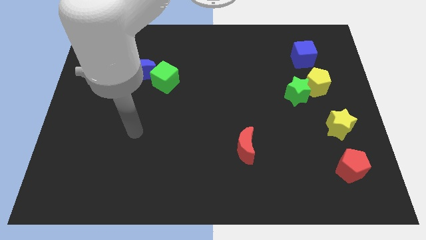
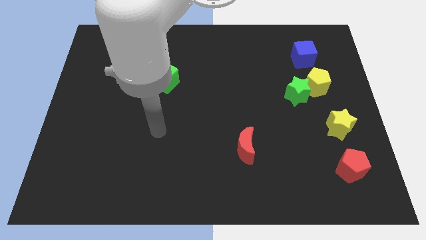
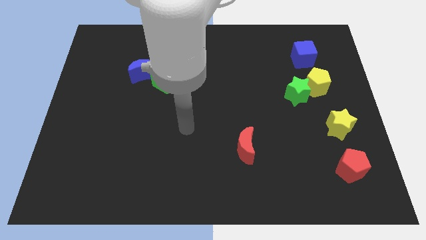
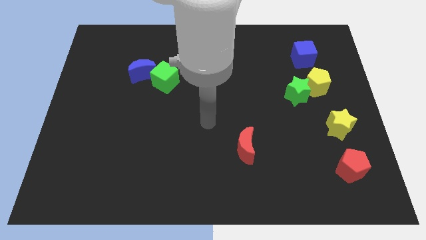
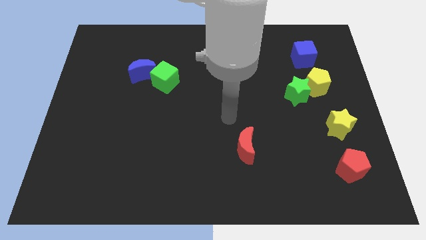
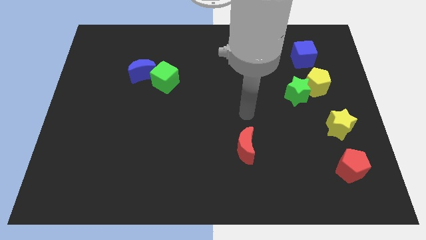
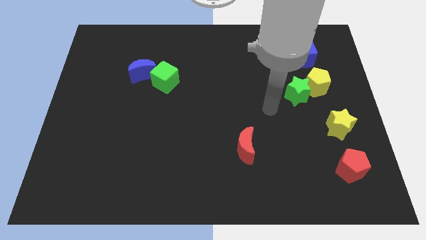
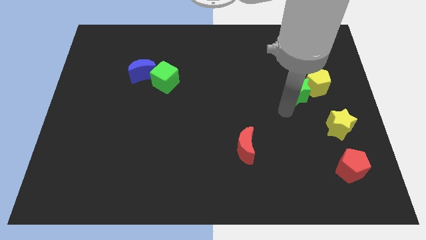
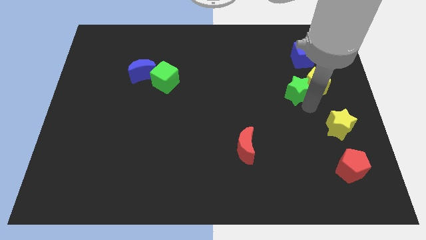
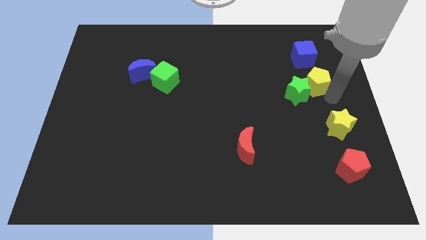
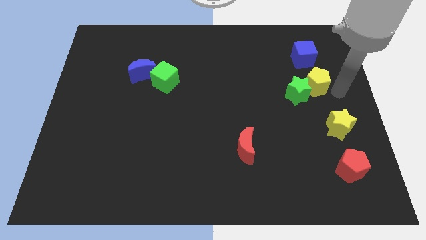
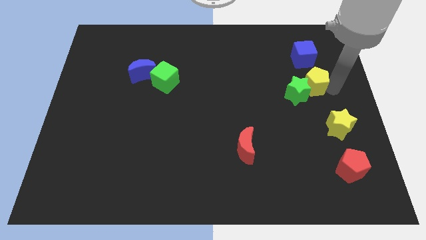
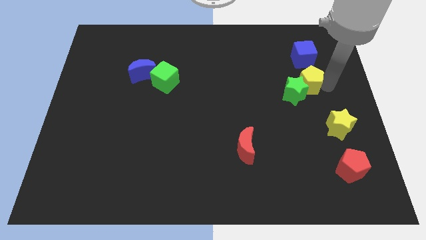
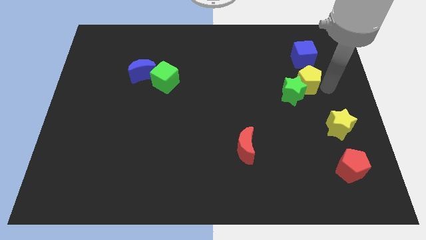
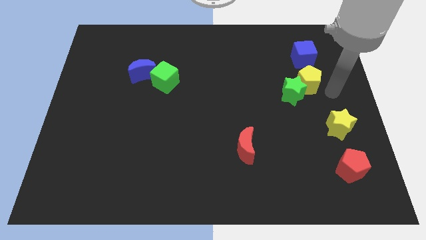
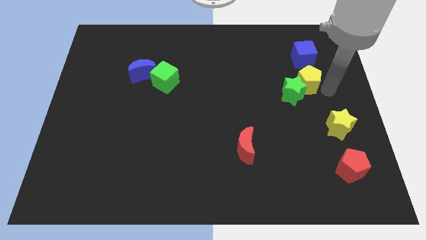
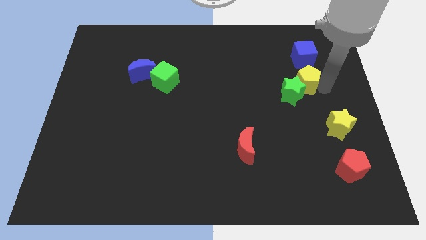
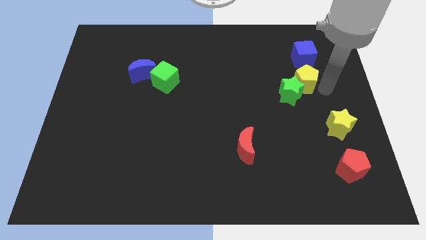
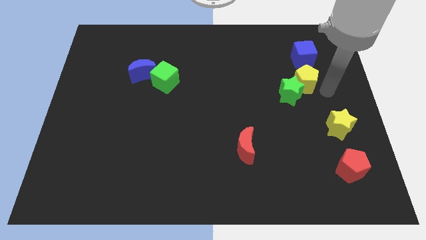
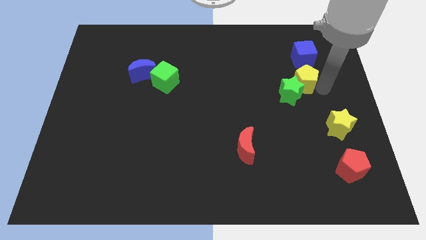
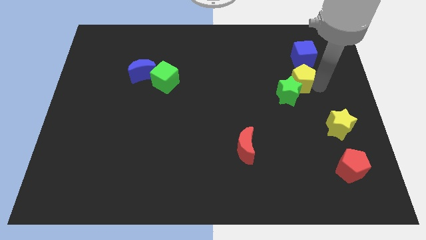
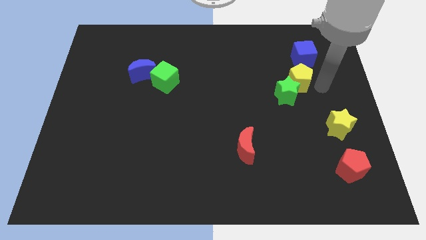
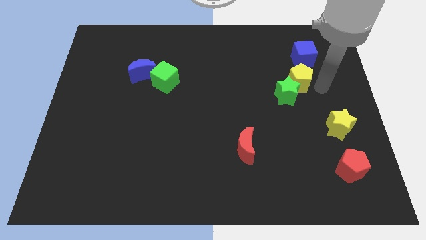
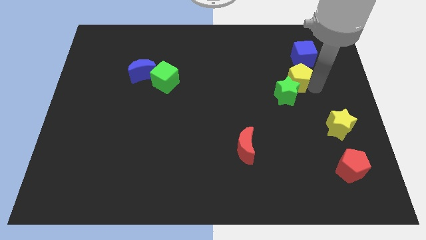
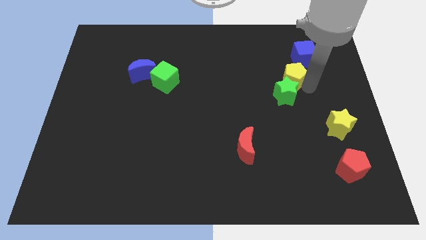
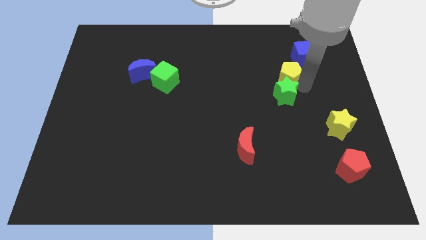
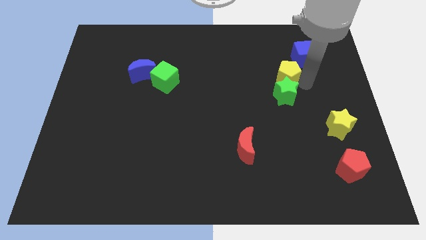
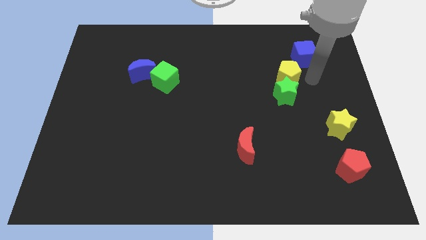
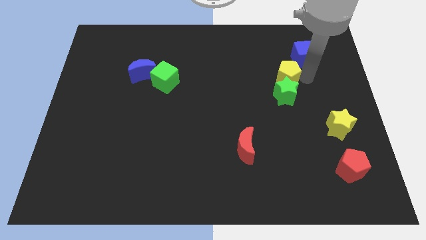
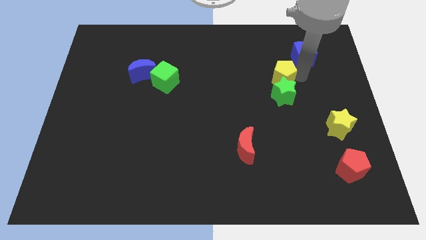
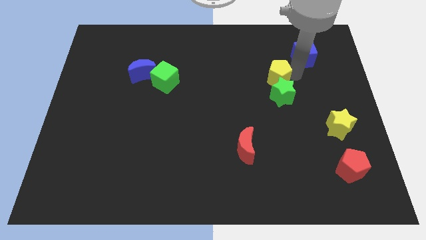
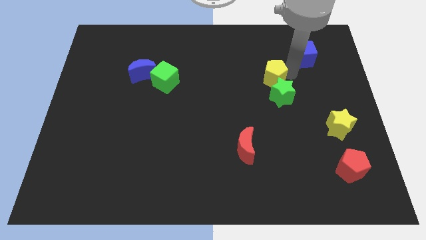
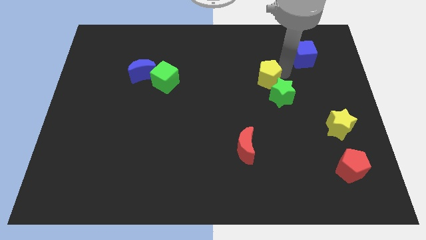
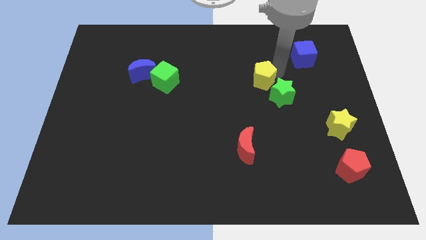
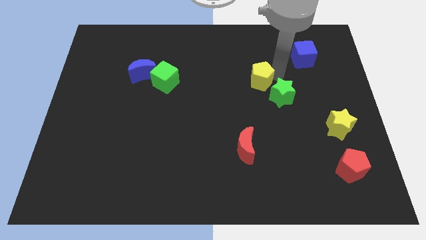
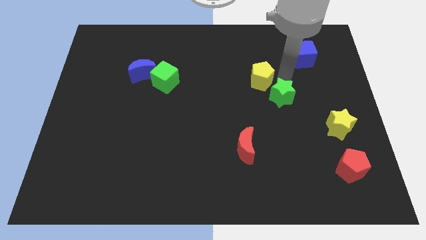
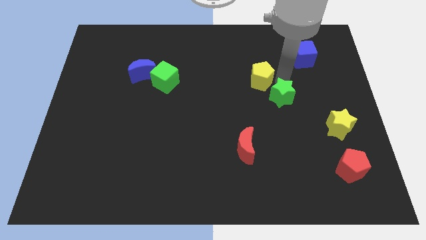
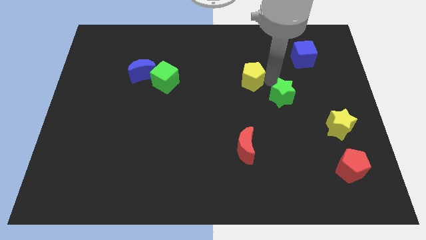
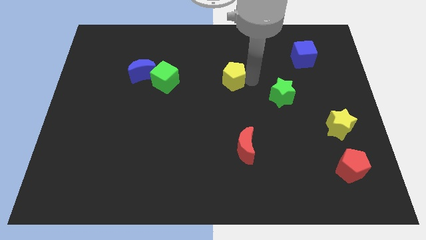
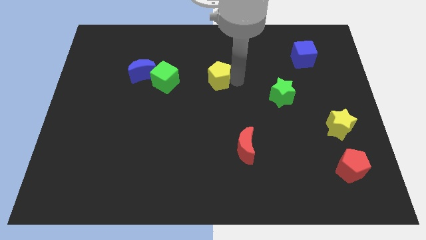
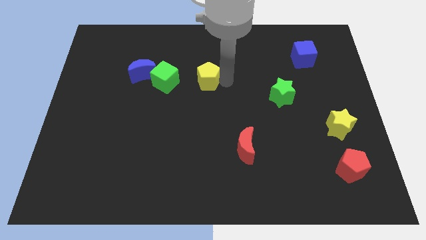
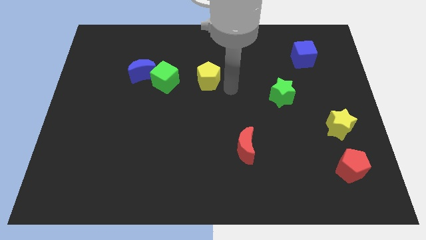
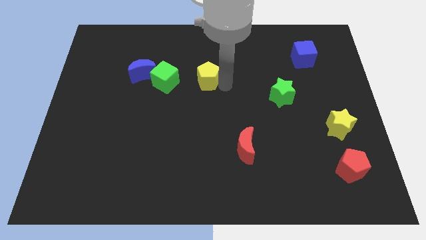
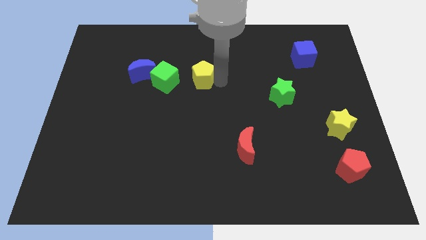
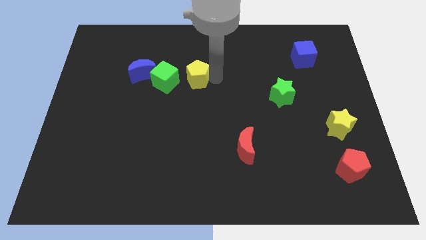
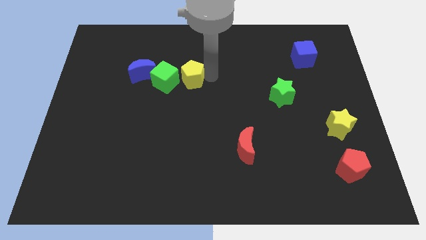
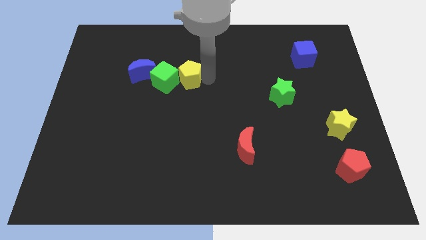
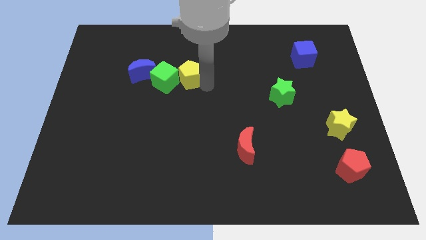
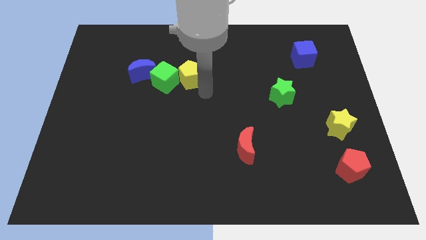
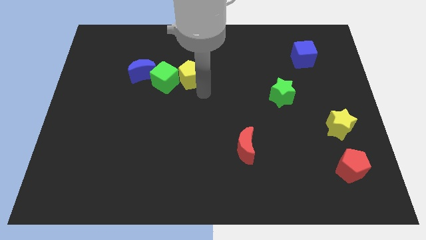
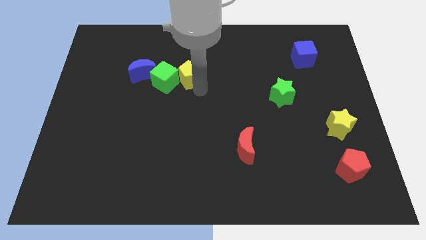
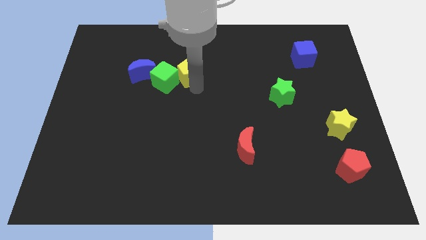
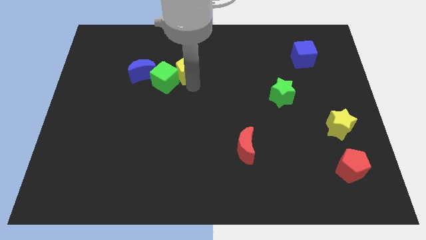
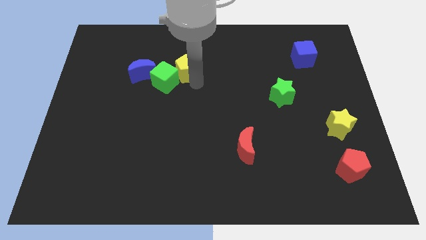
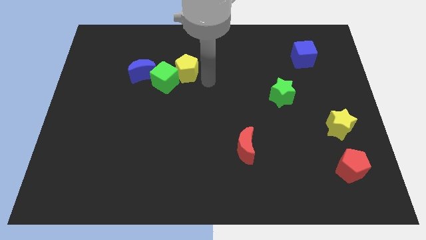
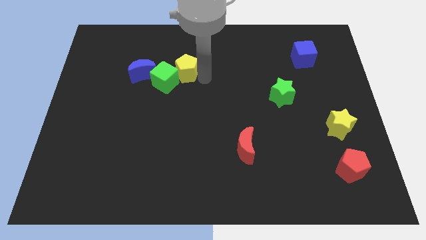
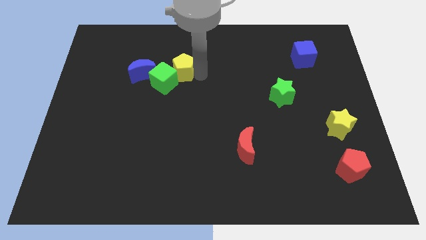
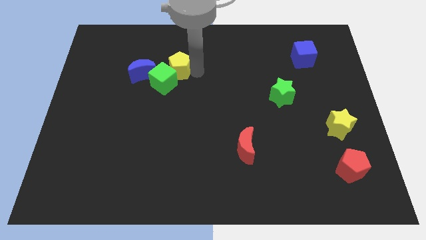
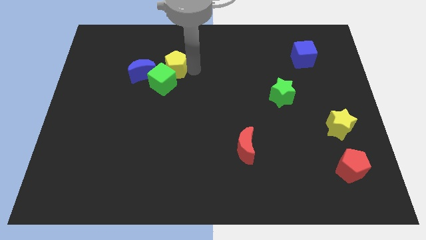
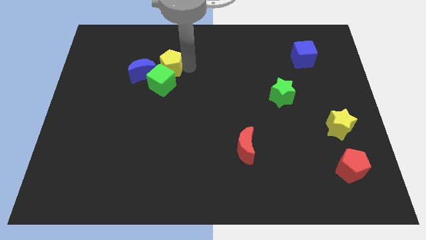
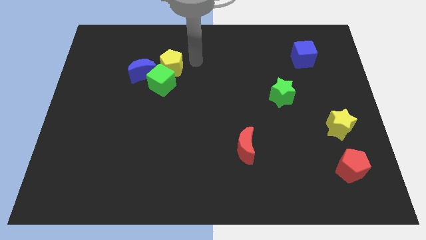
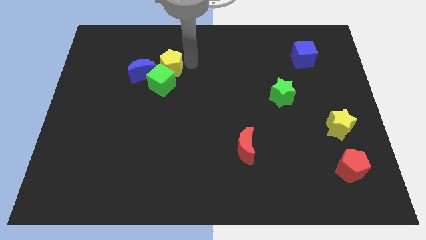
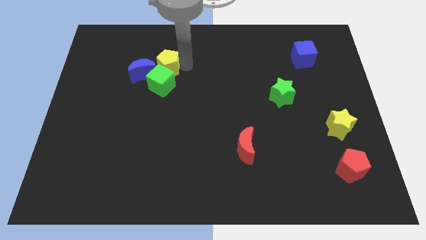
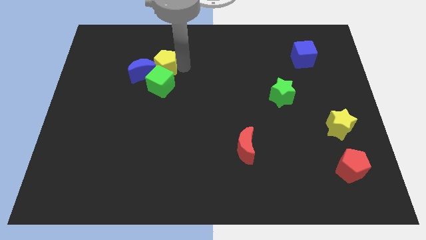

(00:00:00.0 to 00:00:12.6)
slide the yellow pentagon to the blue moon

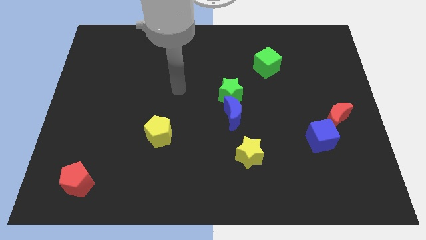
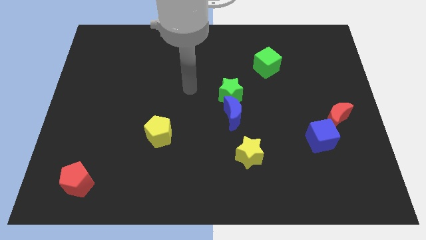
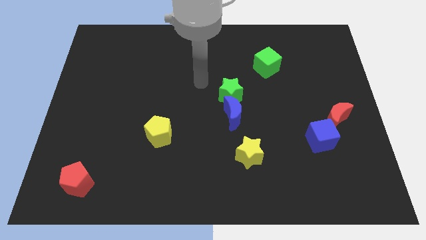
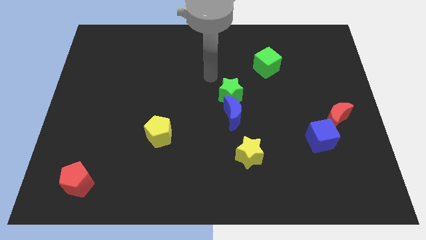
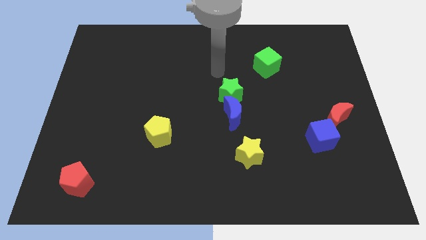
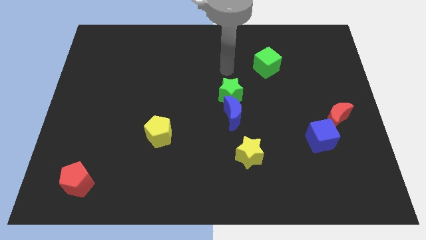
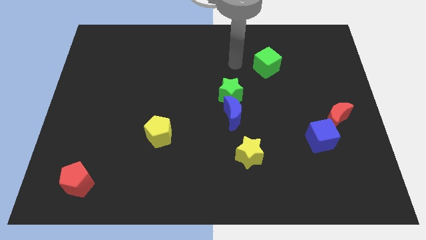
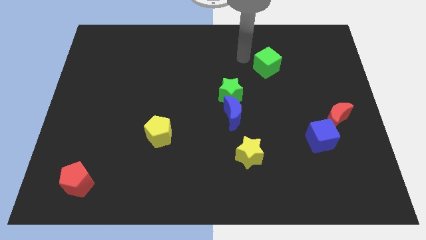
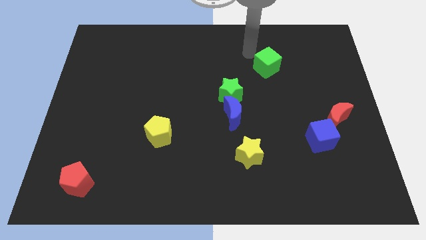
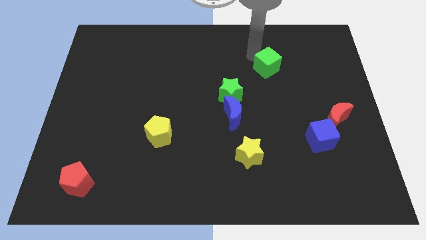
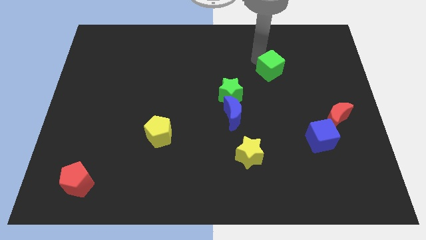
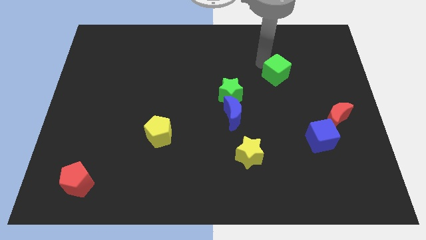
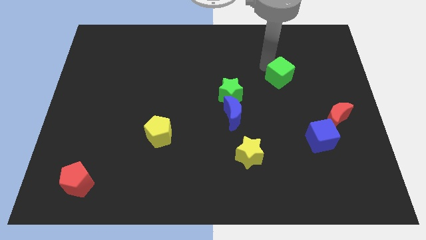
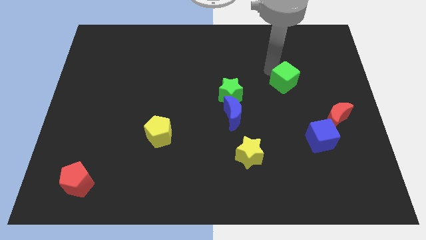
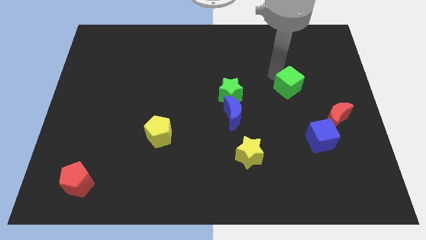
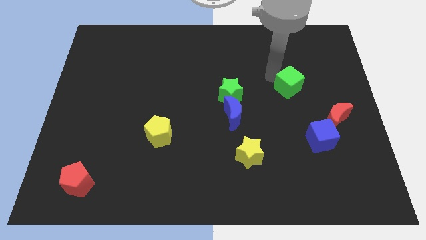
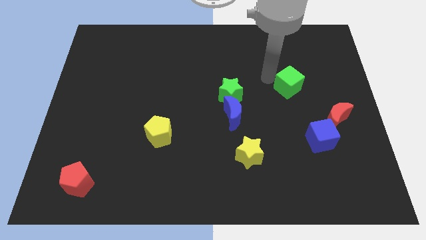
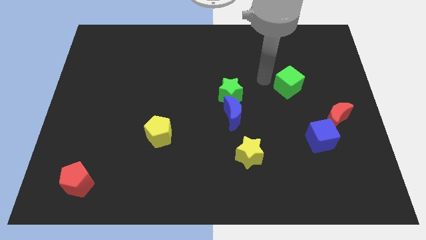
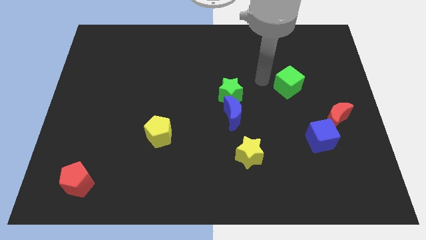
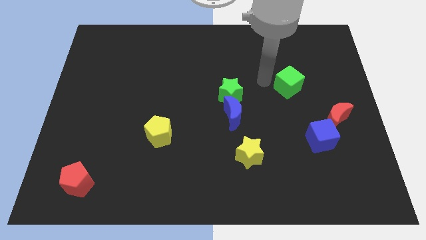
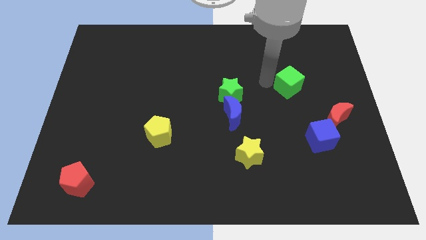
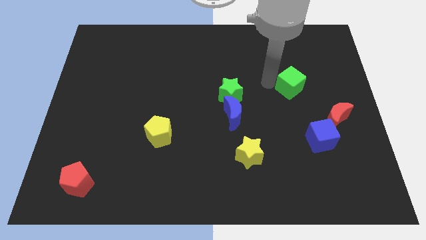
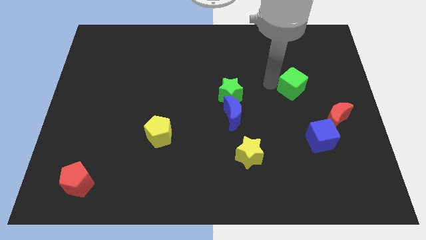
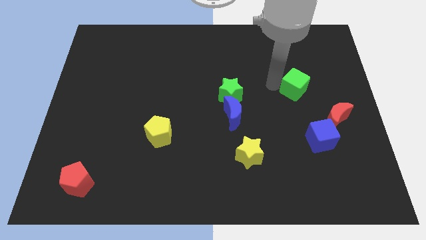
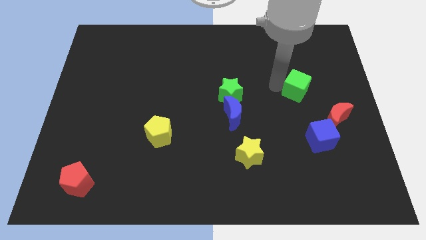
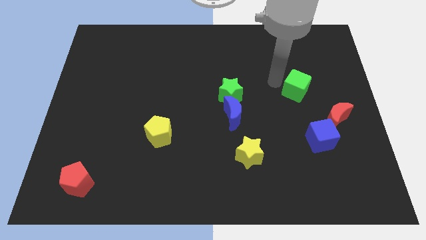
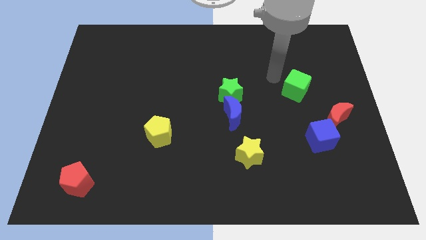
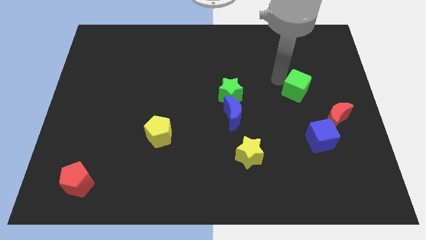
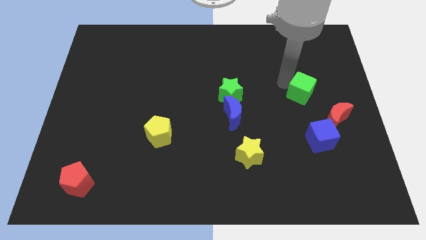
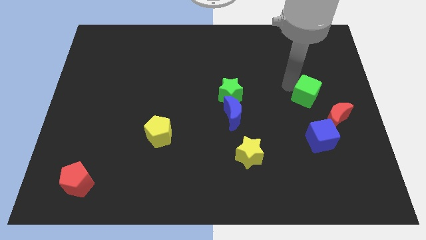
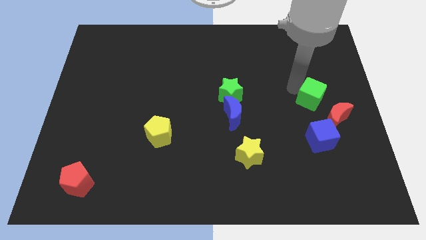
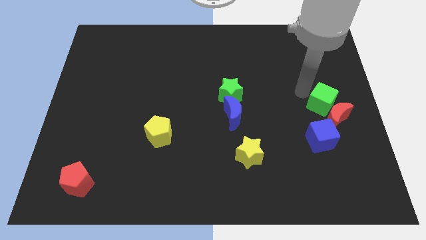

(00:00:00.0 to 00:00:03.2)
put the green cube next to the red moon
